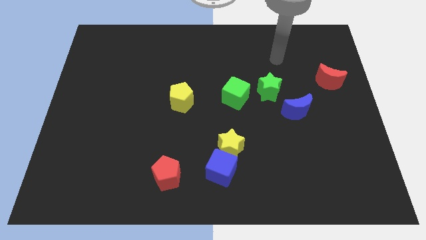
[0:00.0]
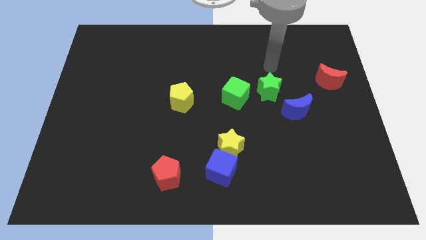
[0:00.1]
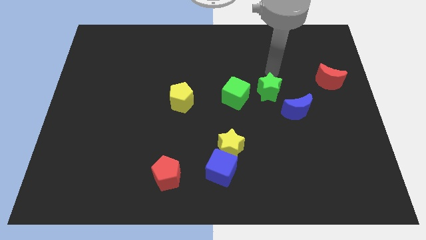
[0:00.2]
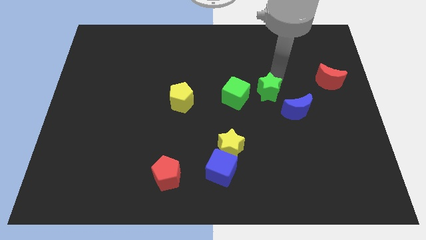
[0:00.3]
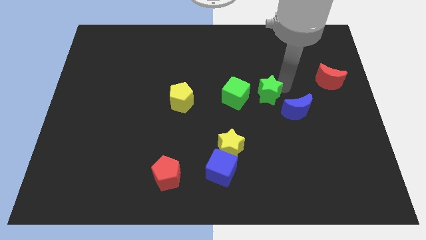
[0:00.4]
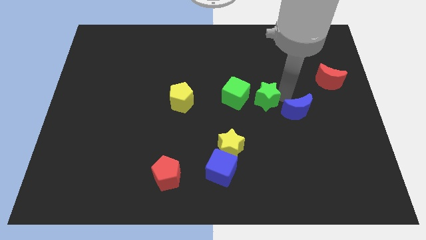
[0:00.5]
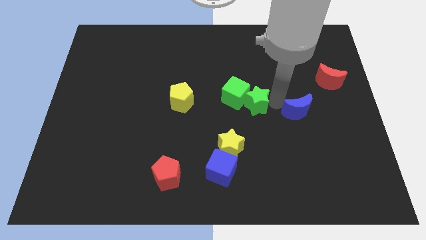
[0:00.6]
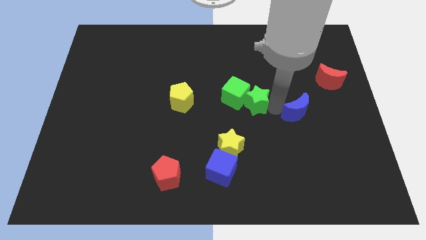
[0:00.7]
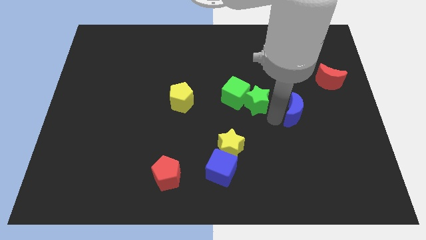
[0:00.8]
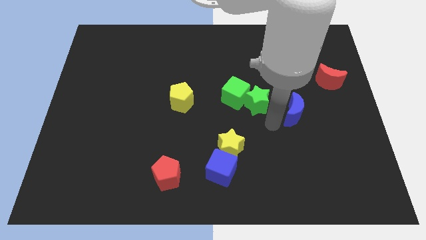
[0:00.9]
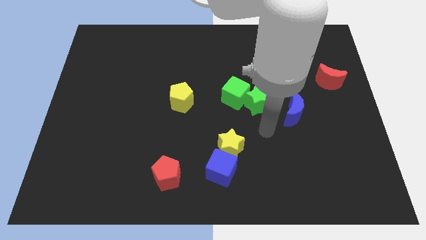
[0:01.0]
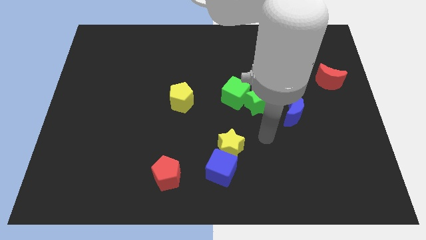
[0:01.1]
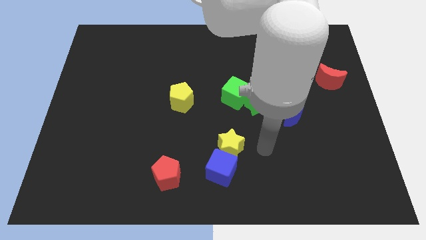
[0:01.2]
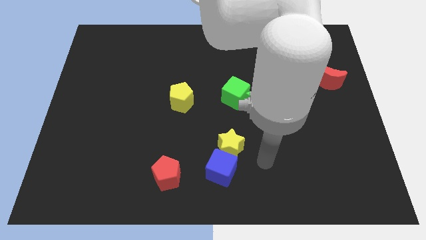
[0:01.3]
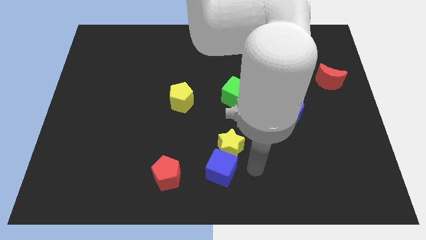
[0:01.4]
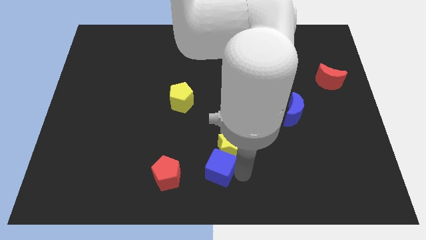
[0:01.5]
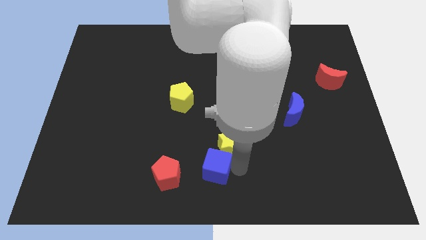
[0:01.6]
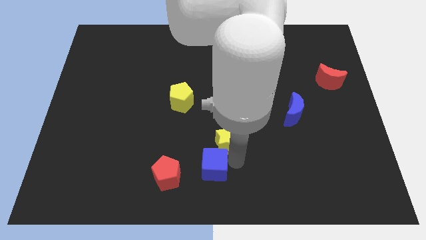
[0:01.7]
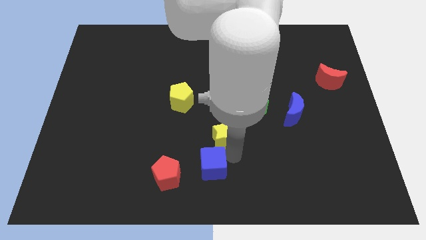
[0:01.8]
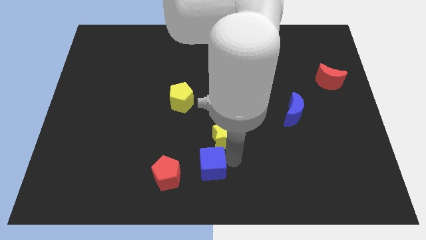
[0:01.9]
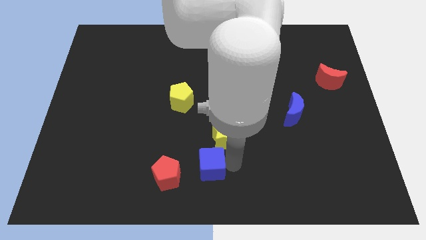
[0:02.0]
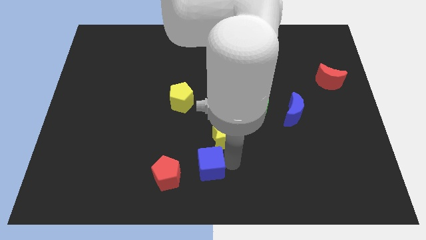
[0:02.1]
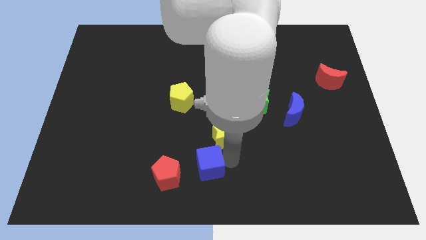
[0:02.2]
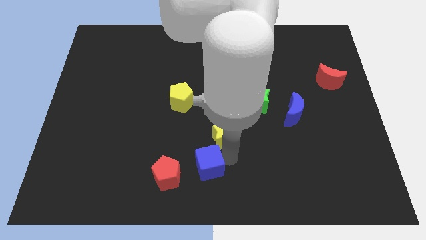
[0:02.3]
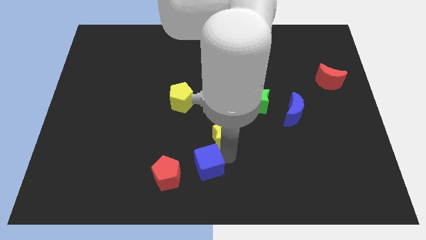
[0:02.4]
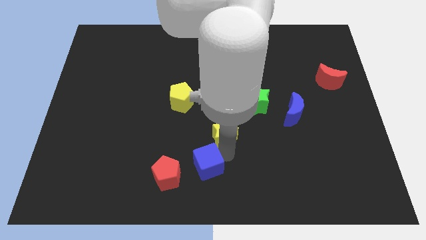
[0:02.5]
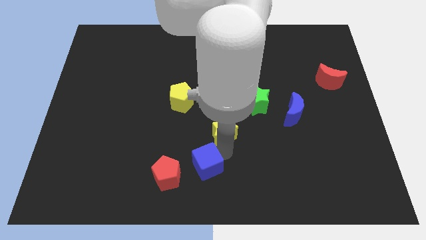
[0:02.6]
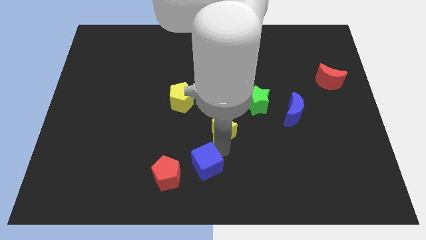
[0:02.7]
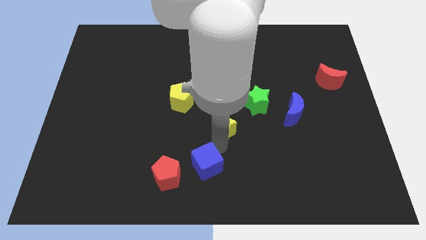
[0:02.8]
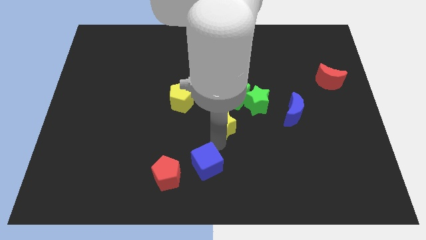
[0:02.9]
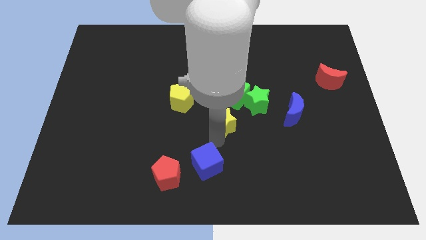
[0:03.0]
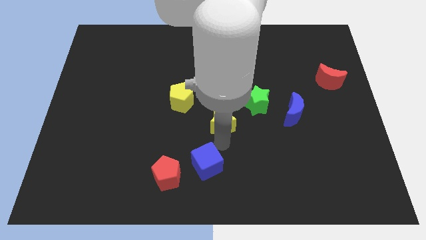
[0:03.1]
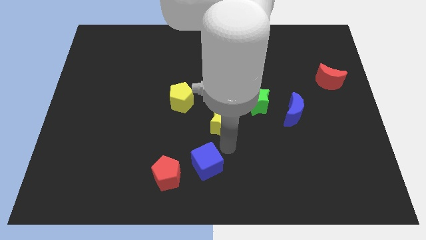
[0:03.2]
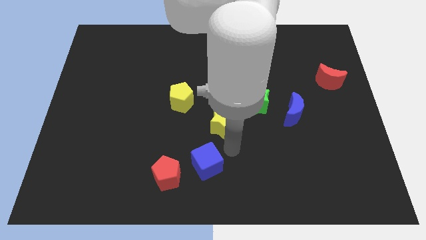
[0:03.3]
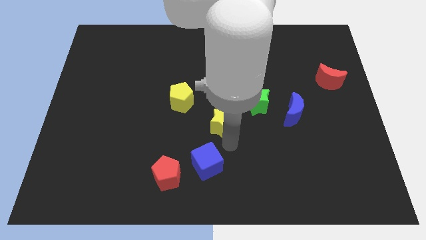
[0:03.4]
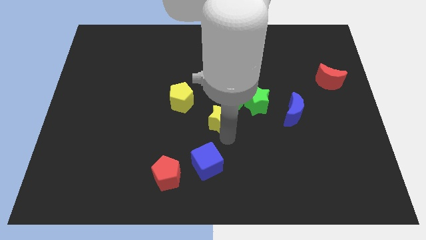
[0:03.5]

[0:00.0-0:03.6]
move the yellow star up somewhat

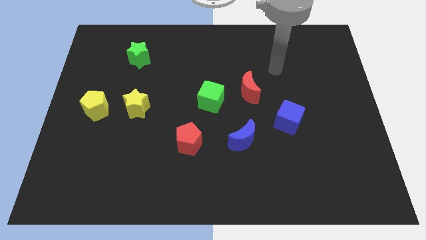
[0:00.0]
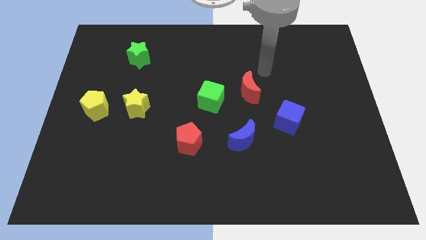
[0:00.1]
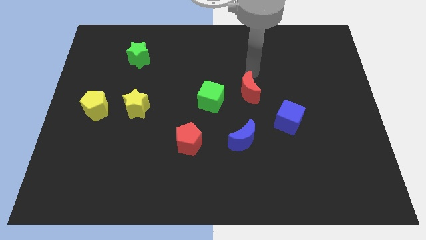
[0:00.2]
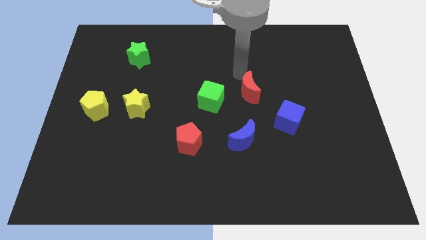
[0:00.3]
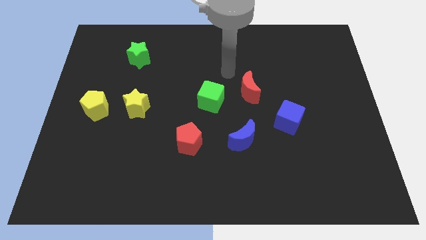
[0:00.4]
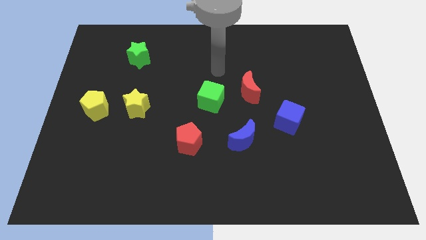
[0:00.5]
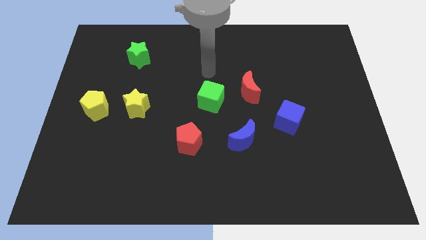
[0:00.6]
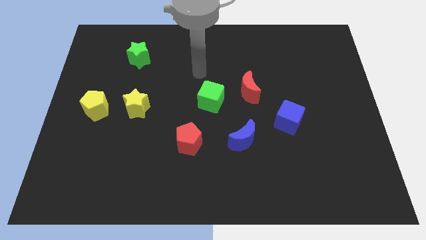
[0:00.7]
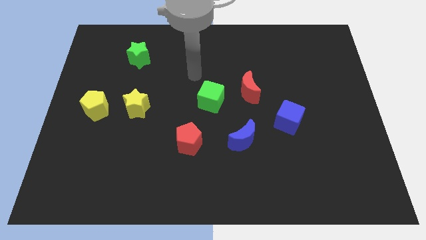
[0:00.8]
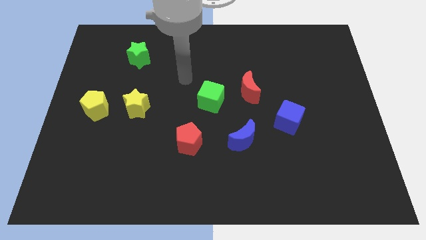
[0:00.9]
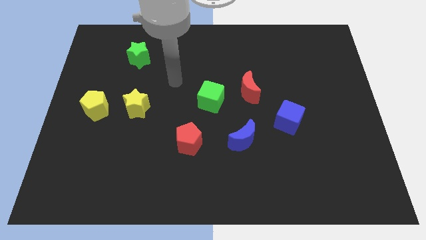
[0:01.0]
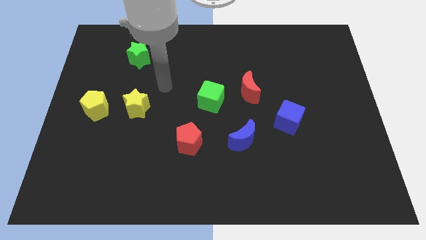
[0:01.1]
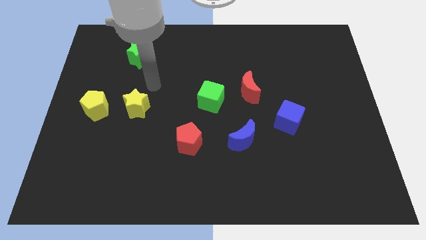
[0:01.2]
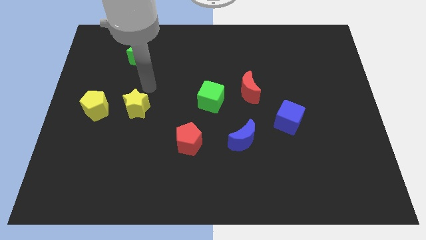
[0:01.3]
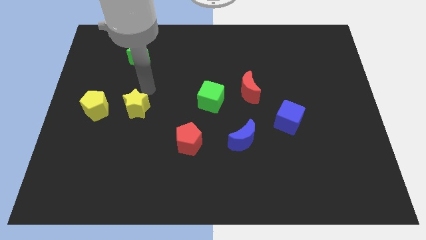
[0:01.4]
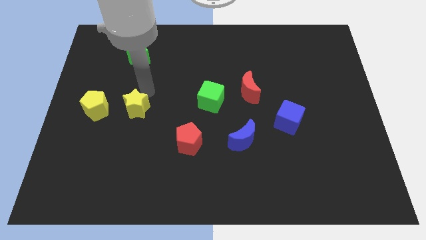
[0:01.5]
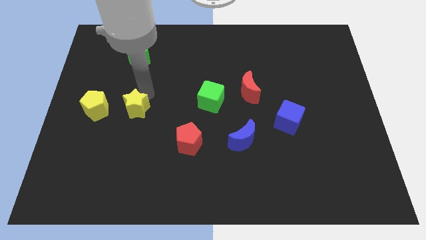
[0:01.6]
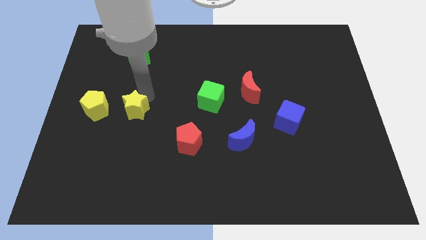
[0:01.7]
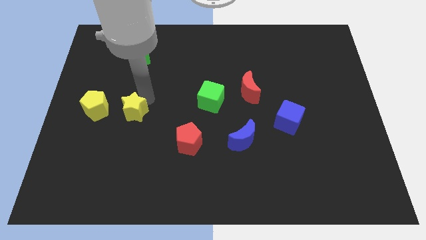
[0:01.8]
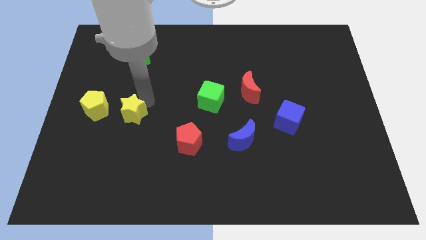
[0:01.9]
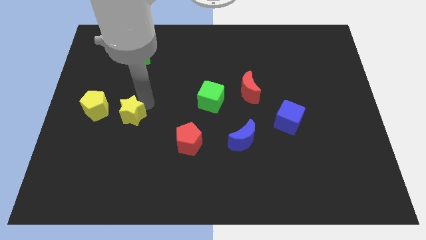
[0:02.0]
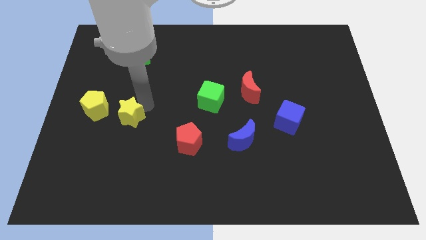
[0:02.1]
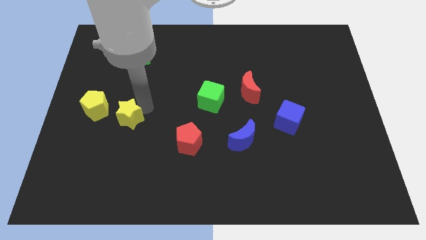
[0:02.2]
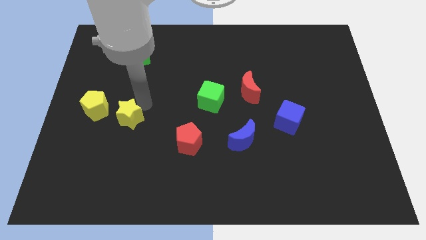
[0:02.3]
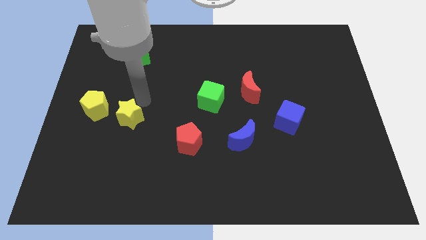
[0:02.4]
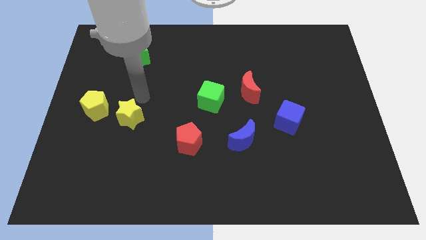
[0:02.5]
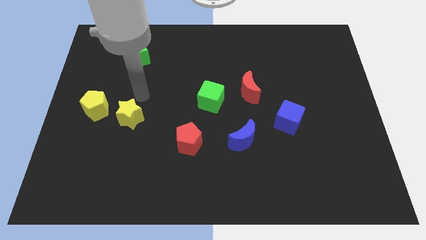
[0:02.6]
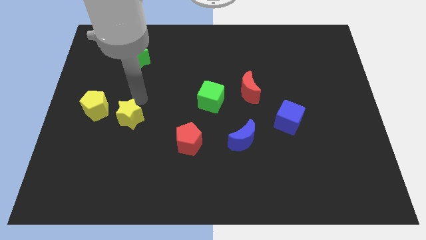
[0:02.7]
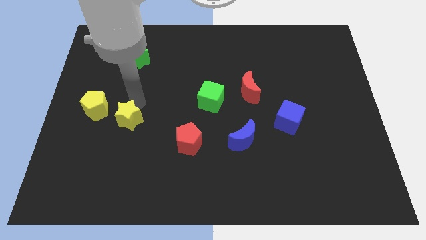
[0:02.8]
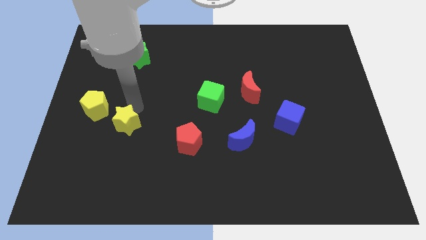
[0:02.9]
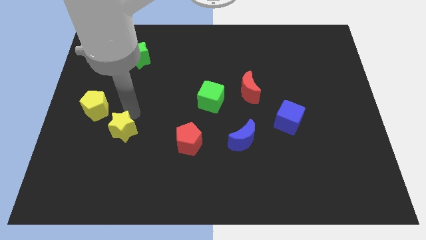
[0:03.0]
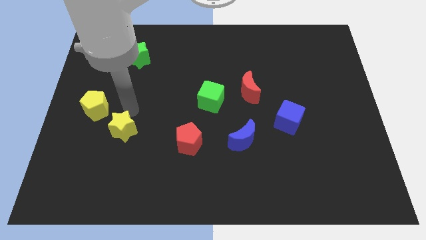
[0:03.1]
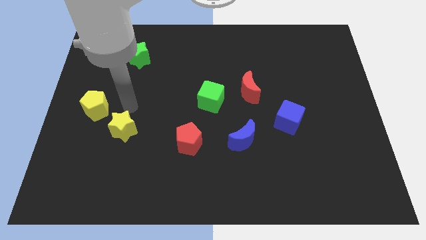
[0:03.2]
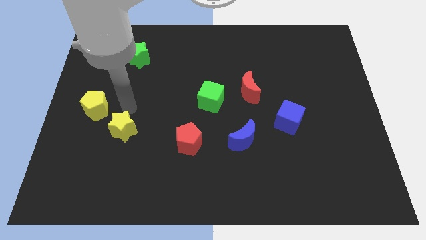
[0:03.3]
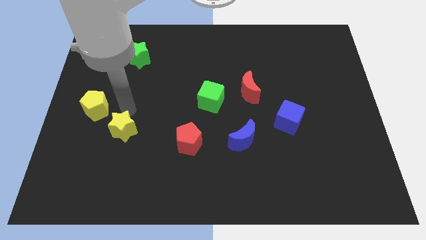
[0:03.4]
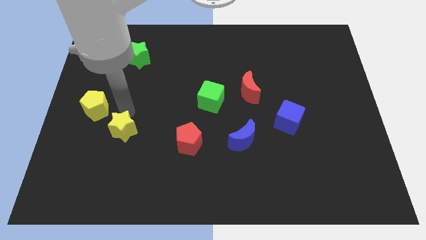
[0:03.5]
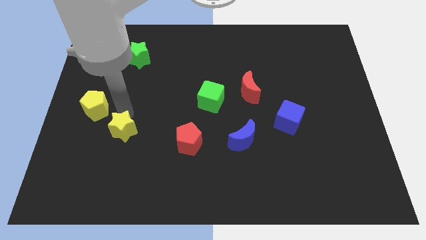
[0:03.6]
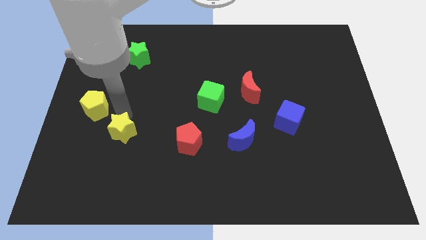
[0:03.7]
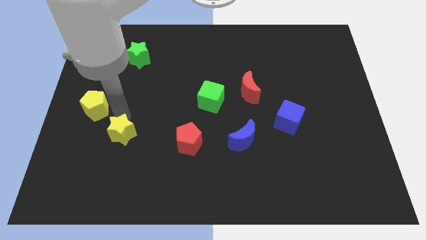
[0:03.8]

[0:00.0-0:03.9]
move the yellow star slightly downwards

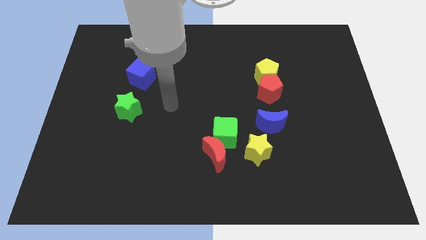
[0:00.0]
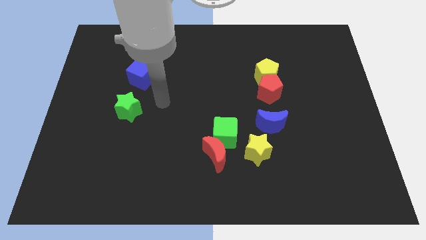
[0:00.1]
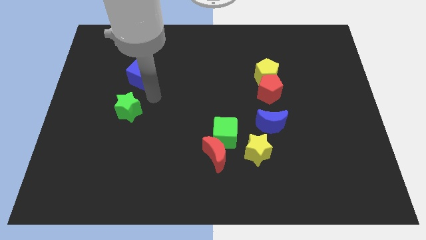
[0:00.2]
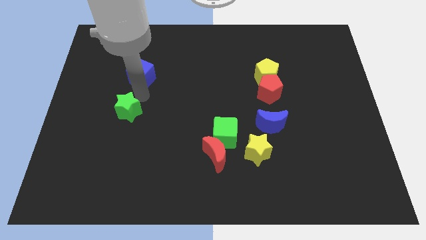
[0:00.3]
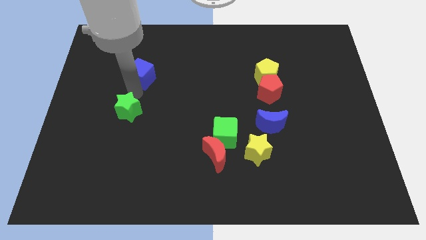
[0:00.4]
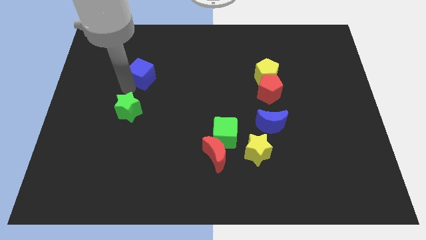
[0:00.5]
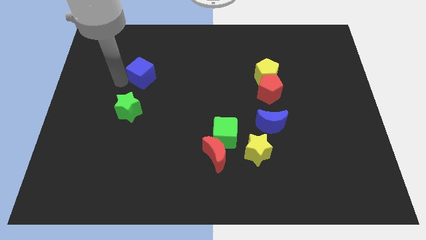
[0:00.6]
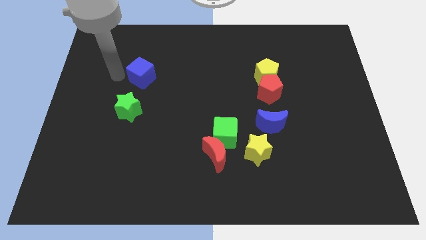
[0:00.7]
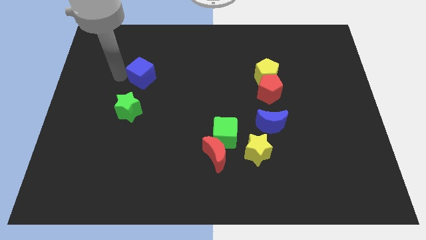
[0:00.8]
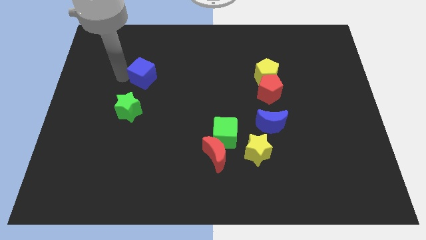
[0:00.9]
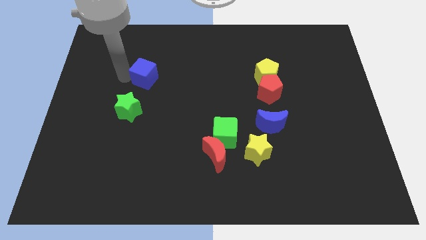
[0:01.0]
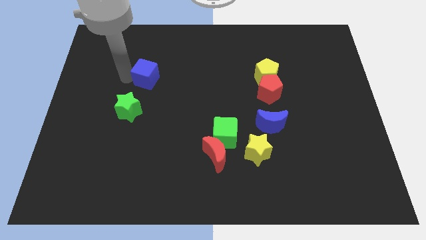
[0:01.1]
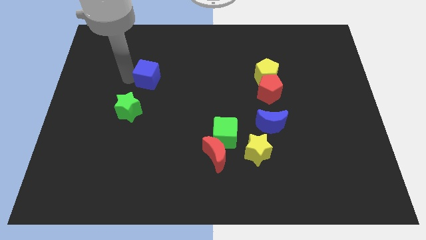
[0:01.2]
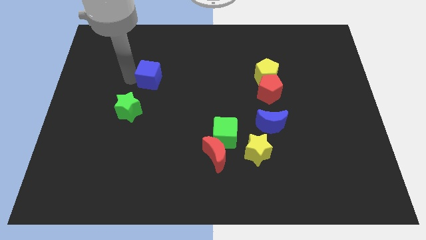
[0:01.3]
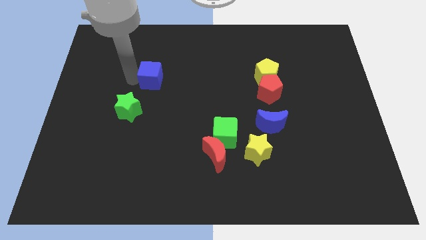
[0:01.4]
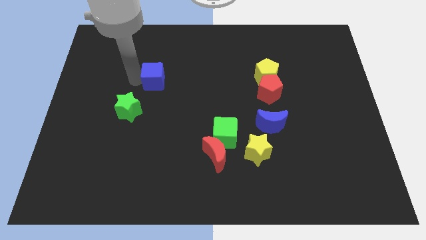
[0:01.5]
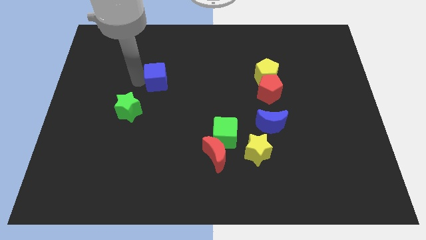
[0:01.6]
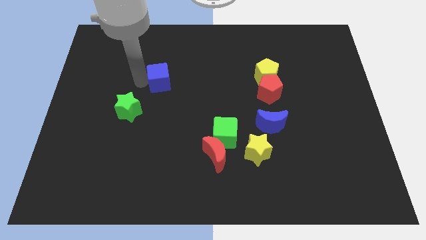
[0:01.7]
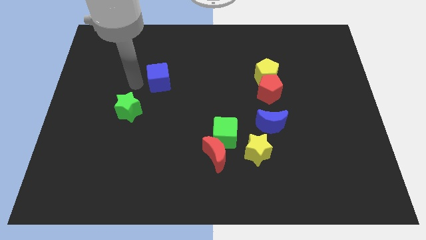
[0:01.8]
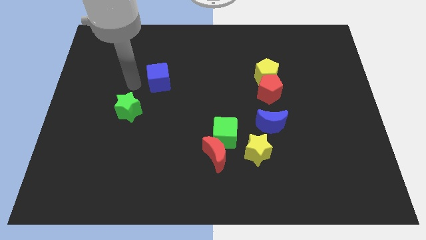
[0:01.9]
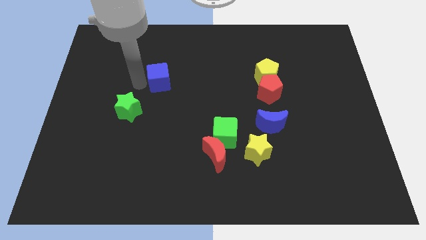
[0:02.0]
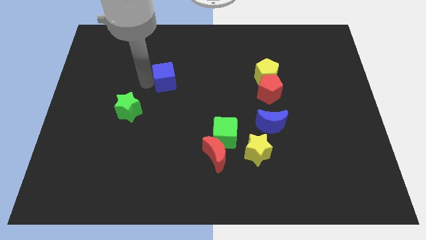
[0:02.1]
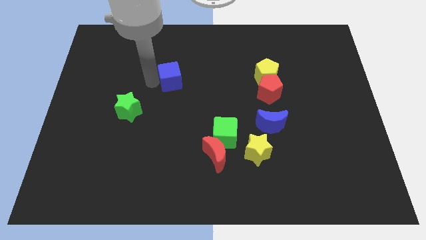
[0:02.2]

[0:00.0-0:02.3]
slightly move the blue cube to the right
